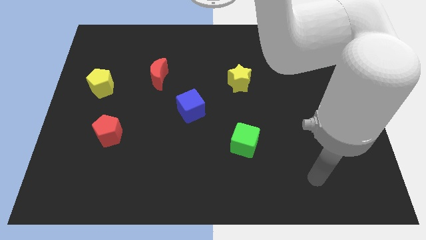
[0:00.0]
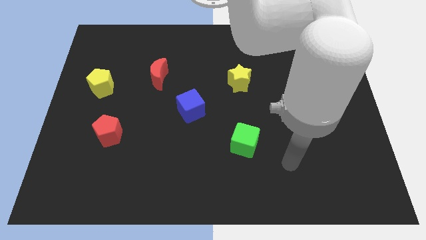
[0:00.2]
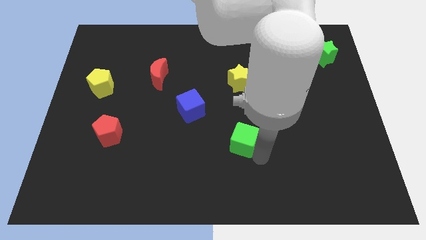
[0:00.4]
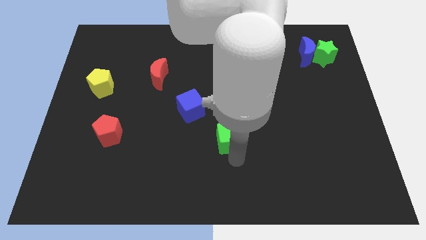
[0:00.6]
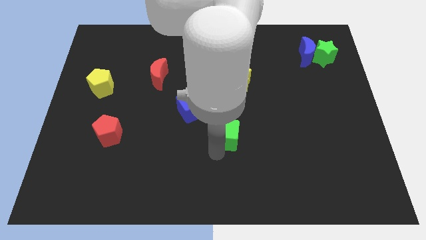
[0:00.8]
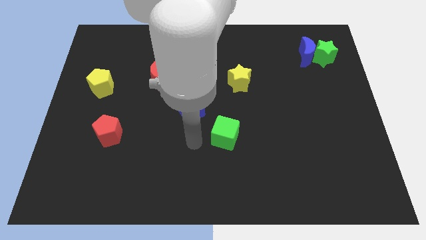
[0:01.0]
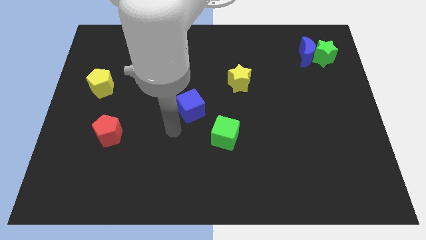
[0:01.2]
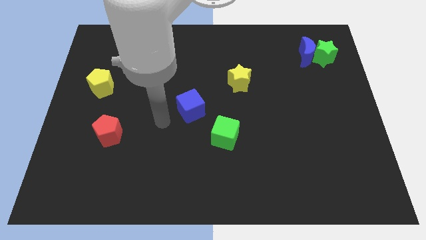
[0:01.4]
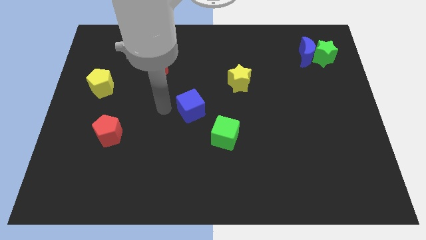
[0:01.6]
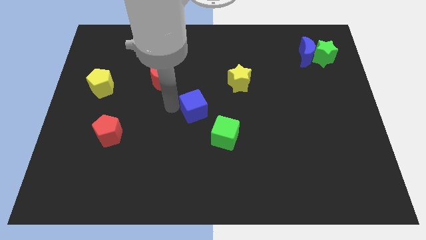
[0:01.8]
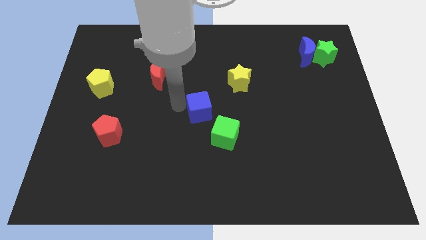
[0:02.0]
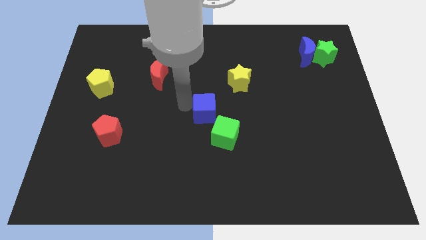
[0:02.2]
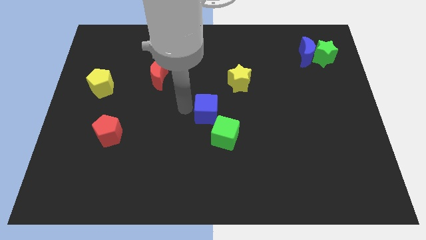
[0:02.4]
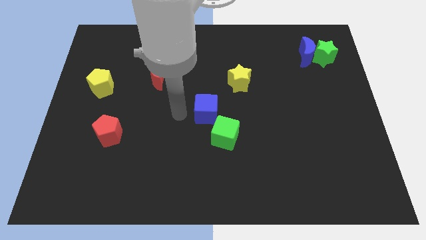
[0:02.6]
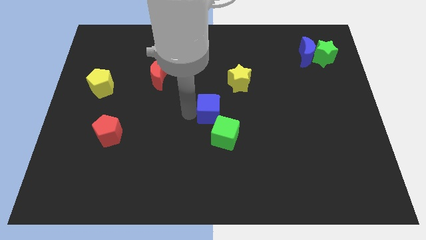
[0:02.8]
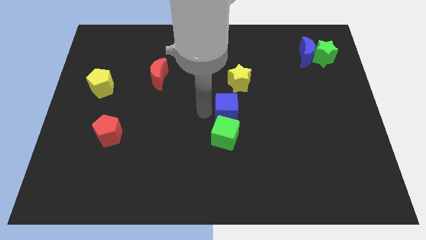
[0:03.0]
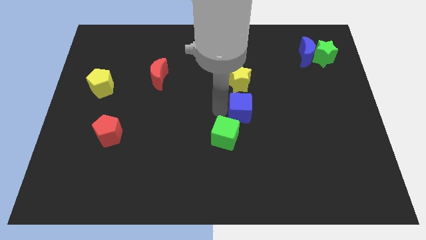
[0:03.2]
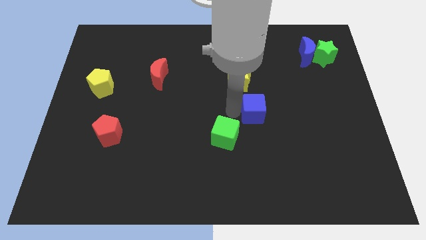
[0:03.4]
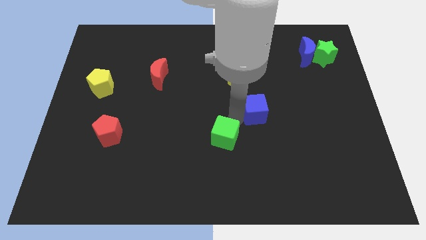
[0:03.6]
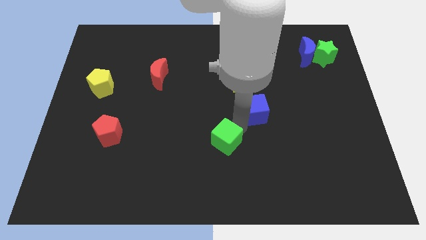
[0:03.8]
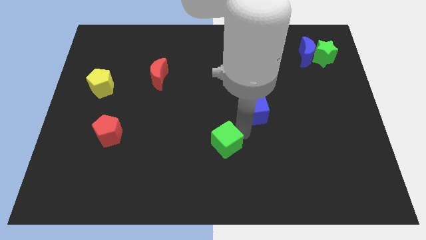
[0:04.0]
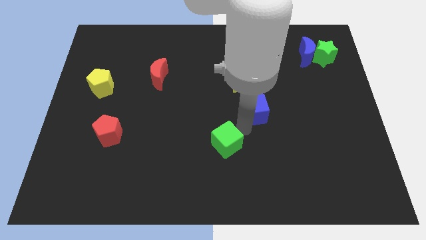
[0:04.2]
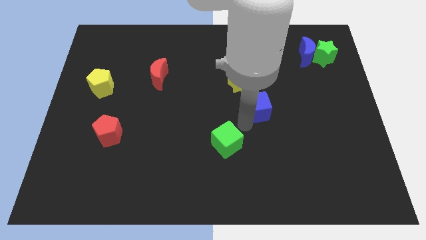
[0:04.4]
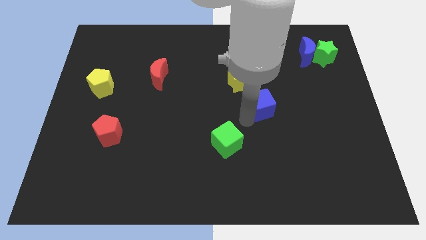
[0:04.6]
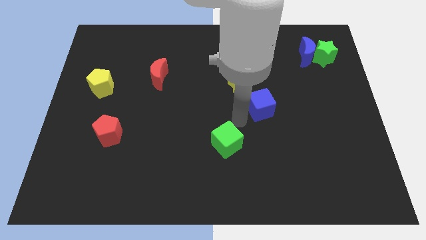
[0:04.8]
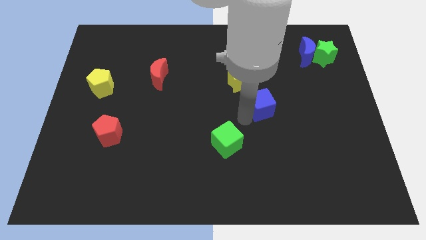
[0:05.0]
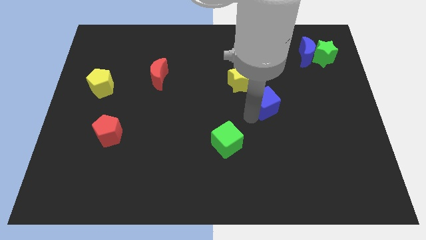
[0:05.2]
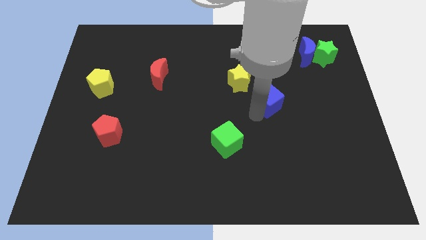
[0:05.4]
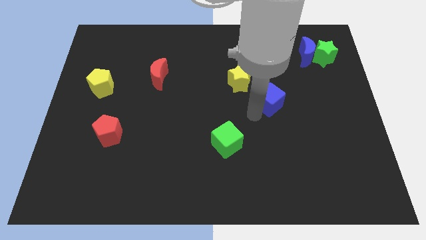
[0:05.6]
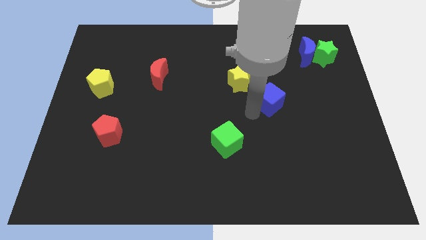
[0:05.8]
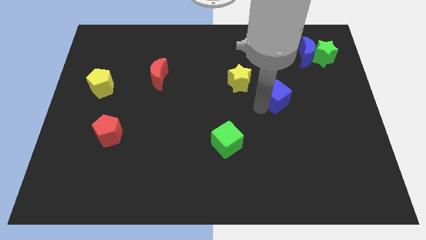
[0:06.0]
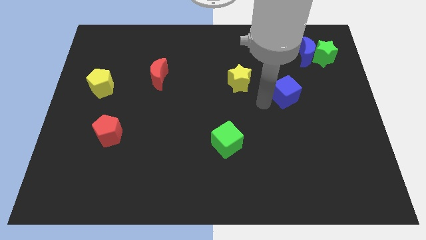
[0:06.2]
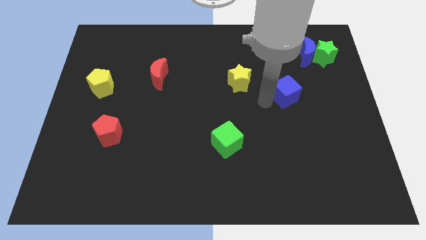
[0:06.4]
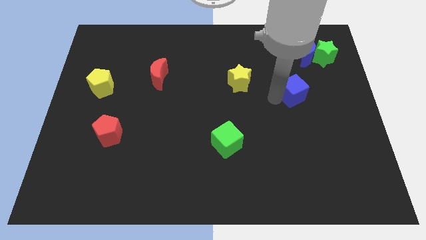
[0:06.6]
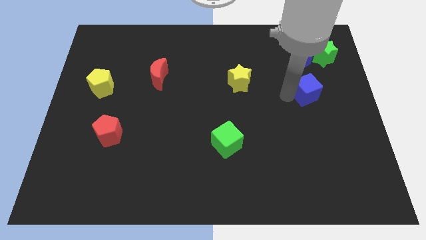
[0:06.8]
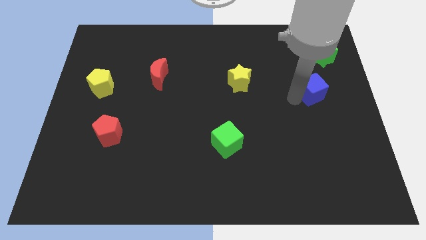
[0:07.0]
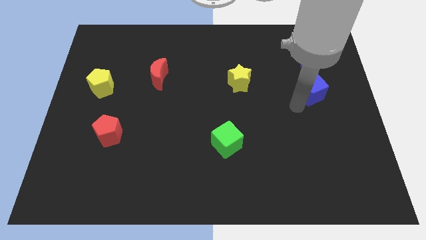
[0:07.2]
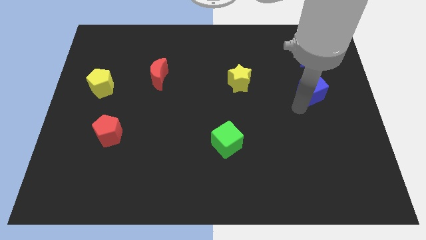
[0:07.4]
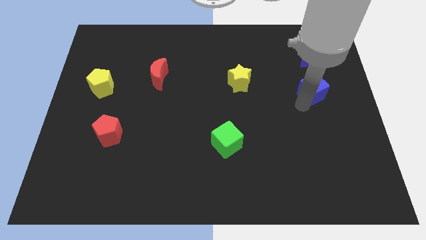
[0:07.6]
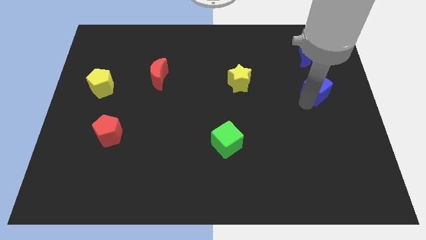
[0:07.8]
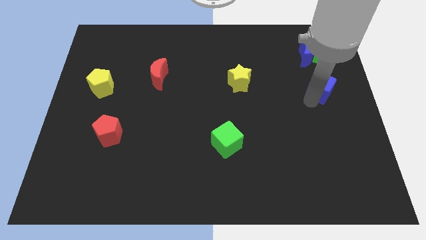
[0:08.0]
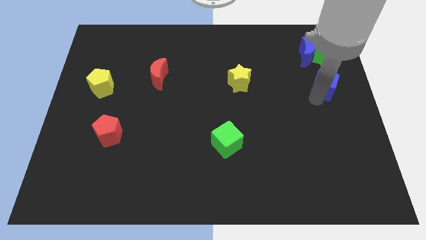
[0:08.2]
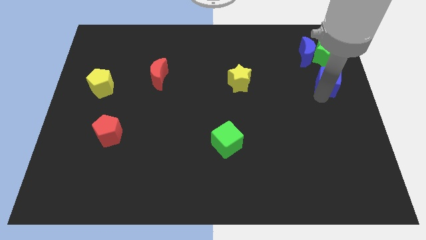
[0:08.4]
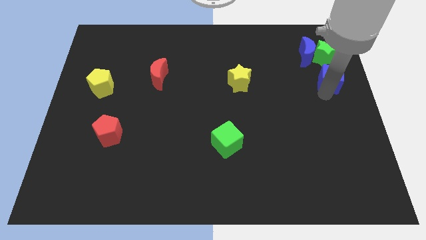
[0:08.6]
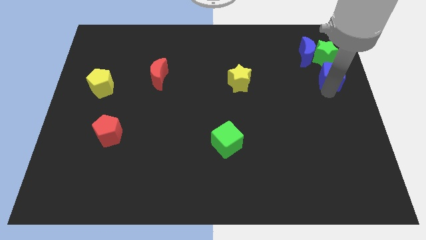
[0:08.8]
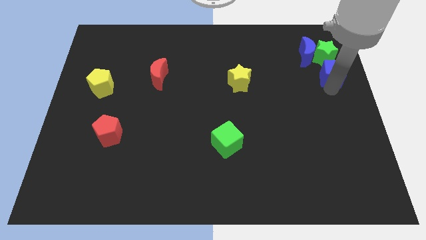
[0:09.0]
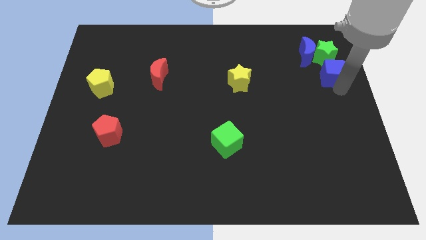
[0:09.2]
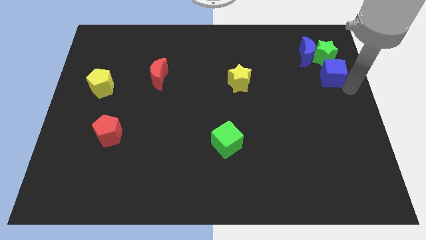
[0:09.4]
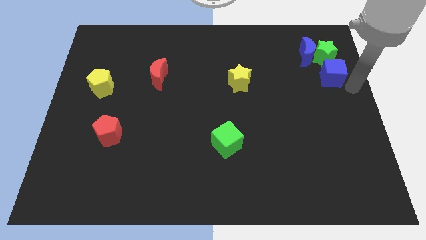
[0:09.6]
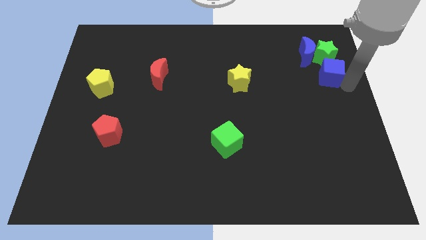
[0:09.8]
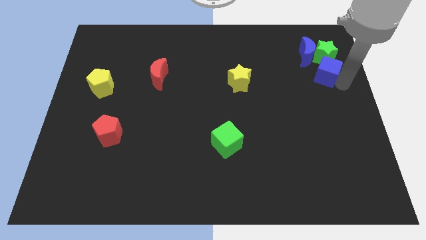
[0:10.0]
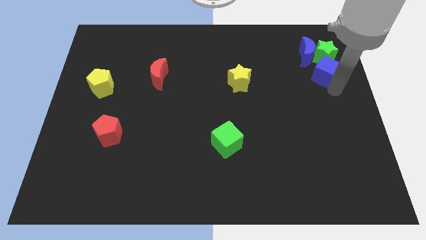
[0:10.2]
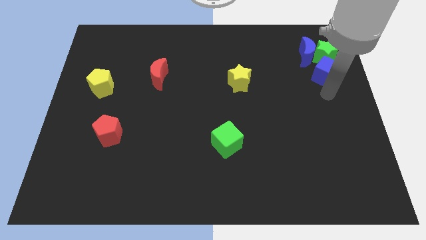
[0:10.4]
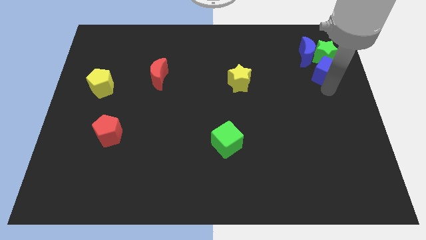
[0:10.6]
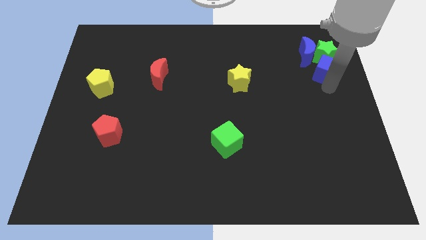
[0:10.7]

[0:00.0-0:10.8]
push the blue cube next to the green star

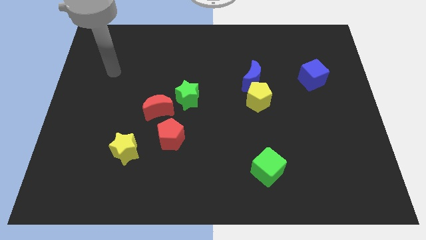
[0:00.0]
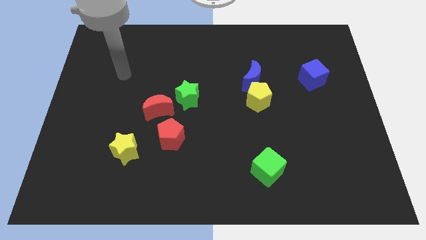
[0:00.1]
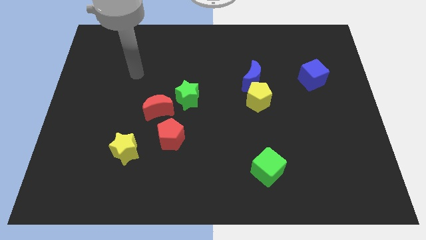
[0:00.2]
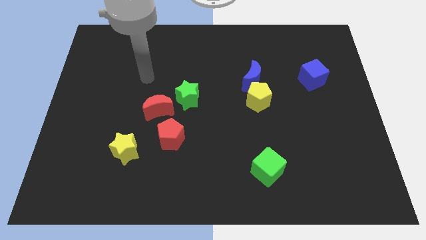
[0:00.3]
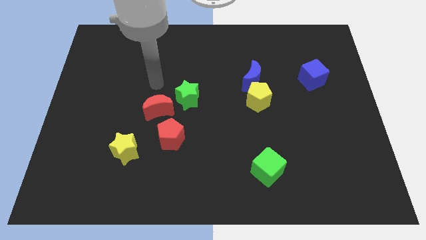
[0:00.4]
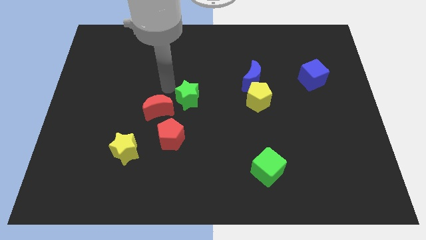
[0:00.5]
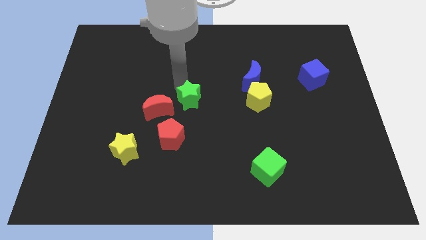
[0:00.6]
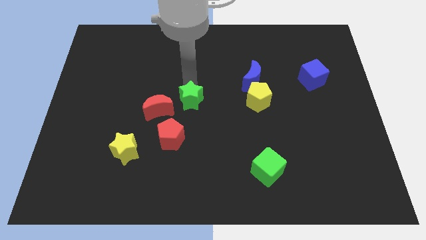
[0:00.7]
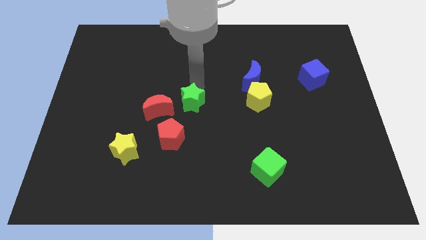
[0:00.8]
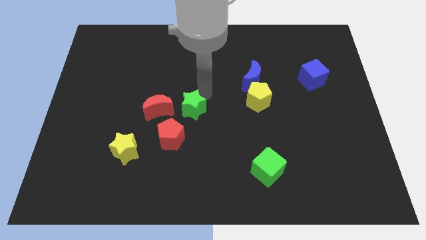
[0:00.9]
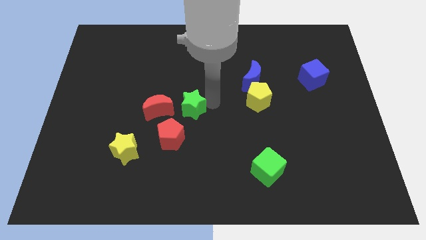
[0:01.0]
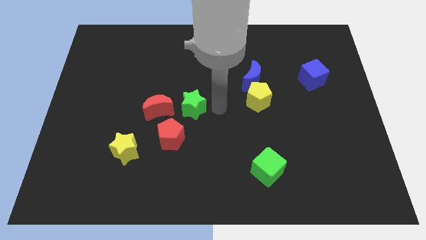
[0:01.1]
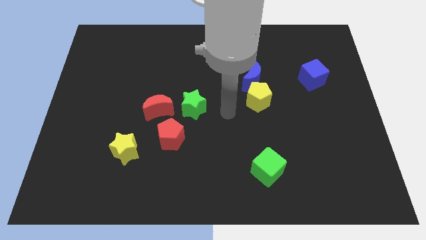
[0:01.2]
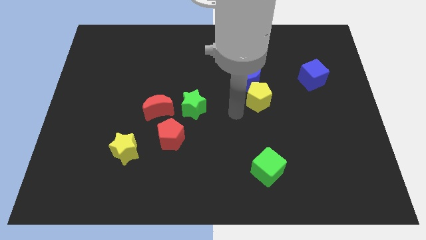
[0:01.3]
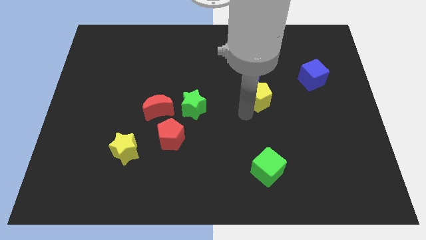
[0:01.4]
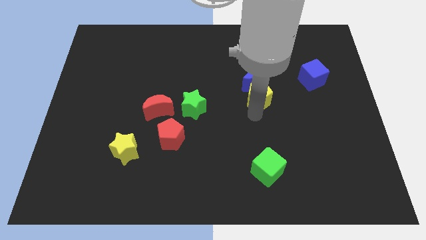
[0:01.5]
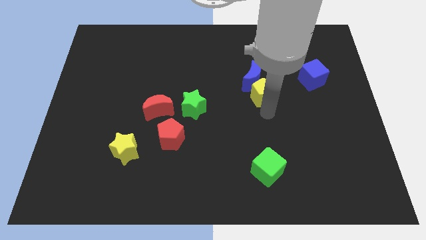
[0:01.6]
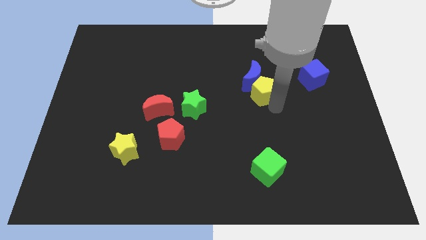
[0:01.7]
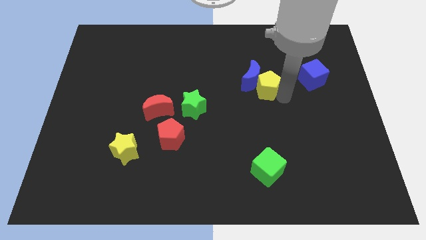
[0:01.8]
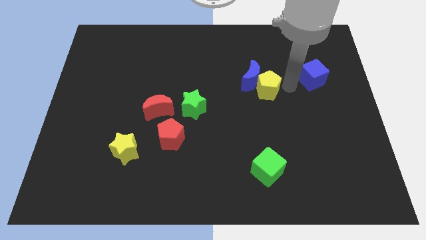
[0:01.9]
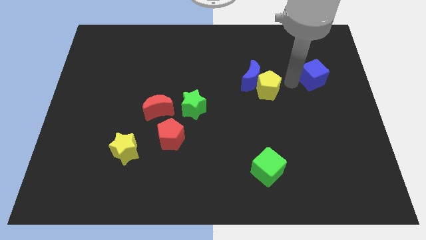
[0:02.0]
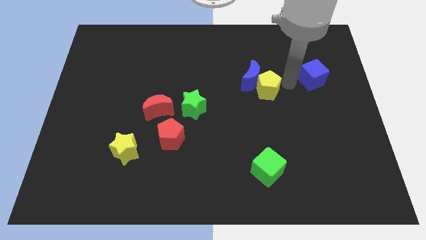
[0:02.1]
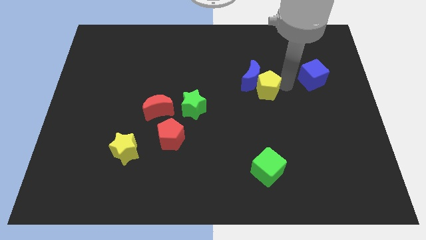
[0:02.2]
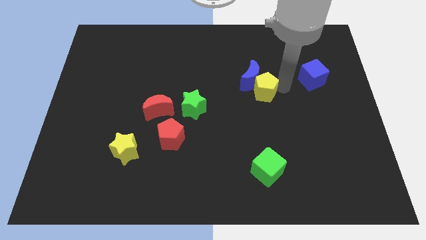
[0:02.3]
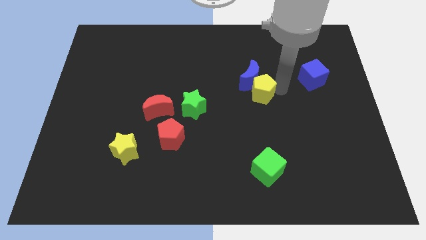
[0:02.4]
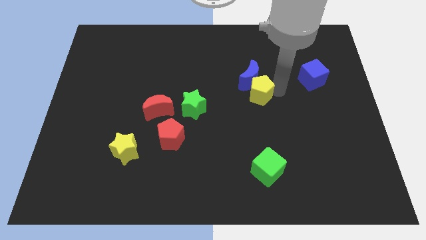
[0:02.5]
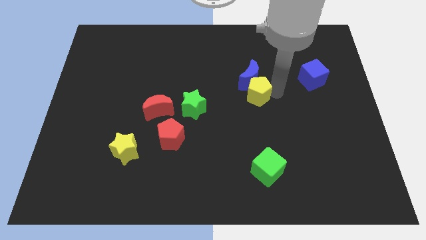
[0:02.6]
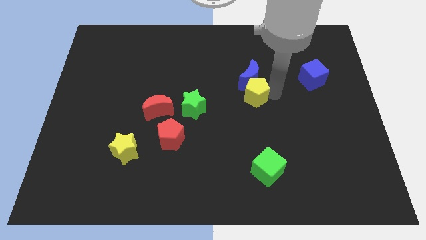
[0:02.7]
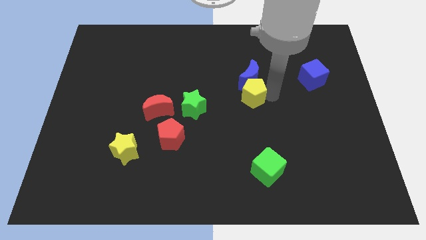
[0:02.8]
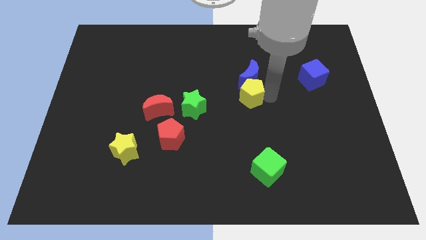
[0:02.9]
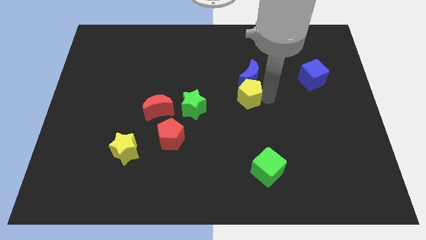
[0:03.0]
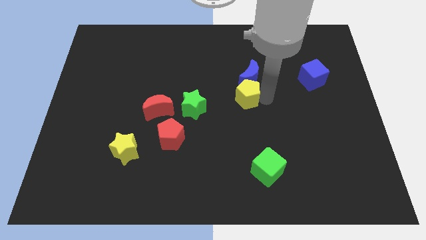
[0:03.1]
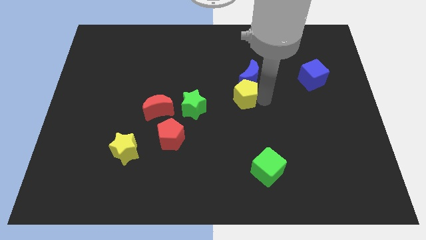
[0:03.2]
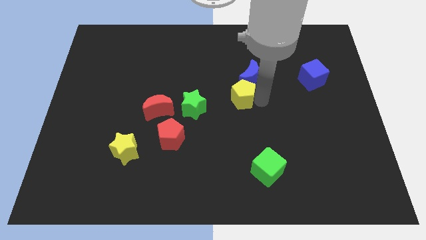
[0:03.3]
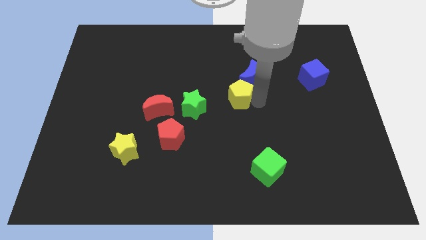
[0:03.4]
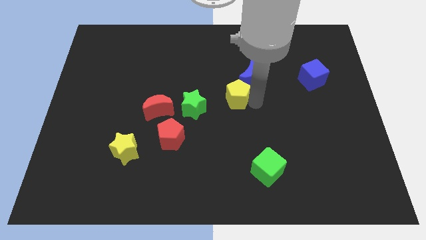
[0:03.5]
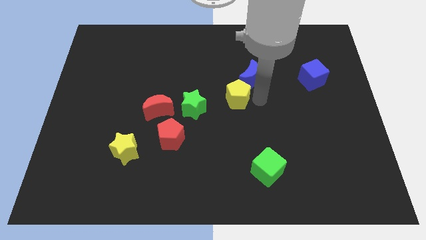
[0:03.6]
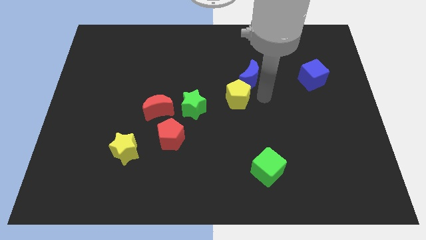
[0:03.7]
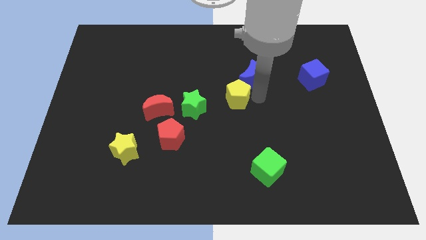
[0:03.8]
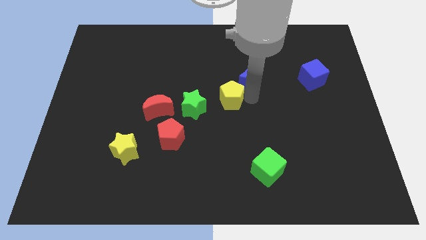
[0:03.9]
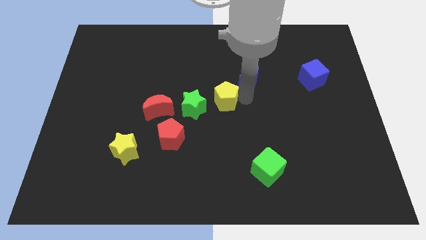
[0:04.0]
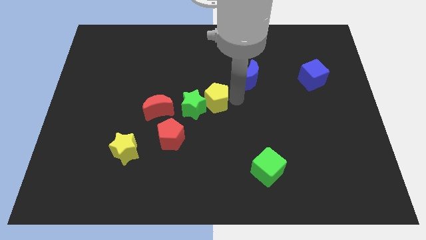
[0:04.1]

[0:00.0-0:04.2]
put the yellow pentagon to the green star
